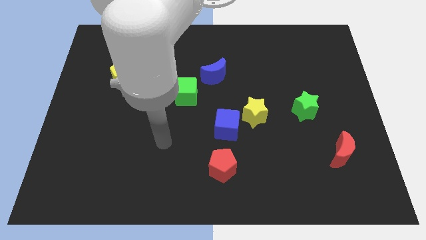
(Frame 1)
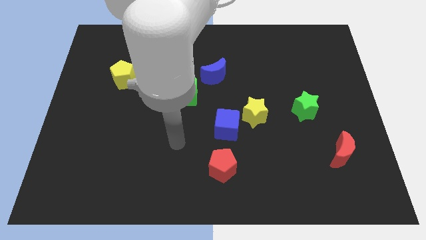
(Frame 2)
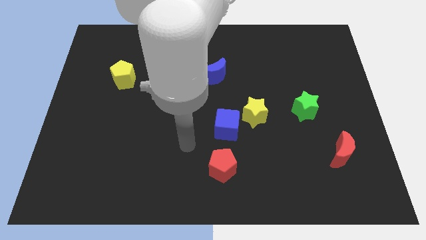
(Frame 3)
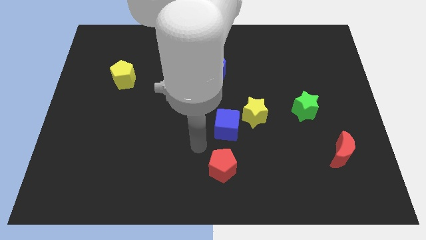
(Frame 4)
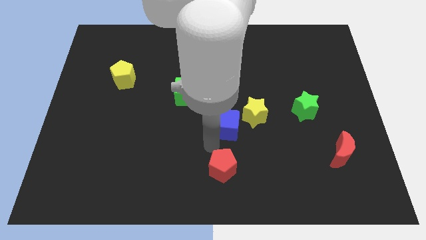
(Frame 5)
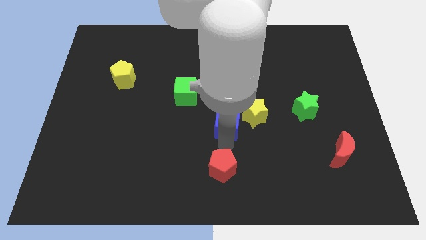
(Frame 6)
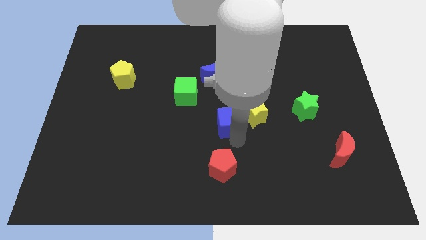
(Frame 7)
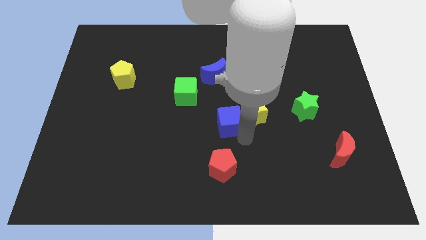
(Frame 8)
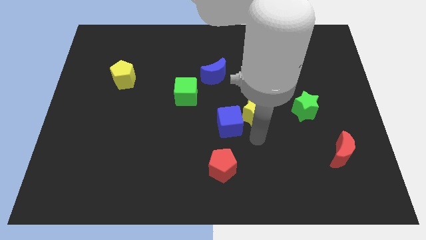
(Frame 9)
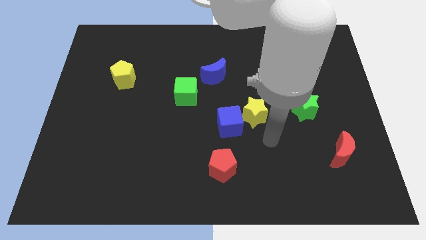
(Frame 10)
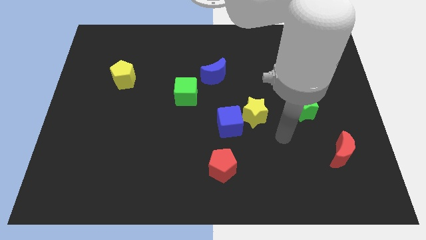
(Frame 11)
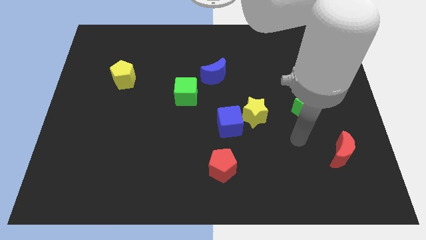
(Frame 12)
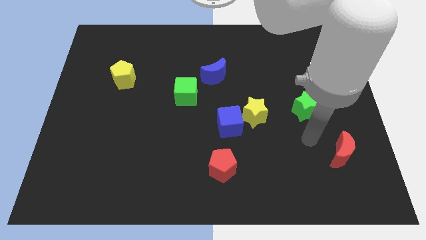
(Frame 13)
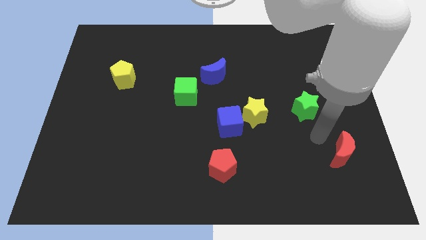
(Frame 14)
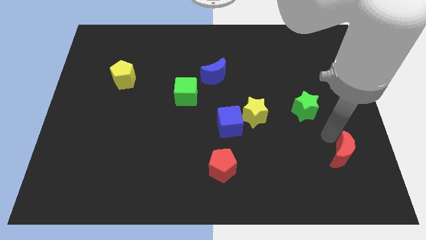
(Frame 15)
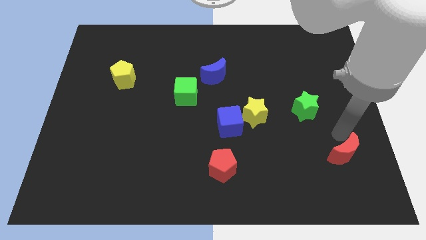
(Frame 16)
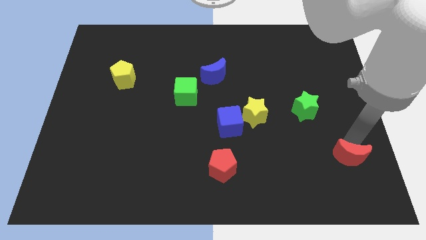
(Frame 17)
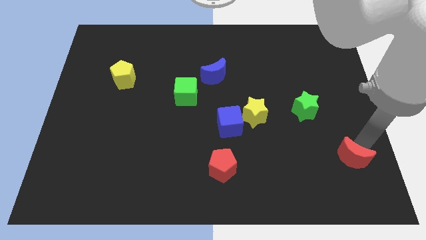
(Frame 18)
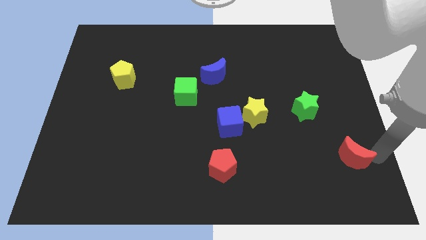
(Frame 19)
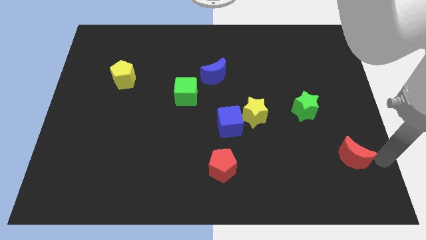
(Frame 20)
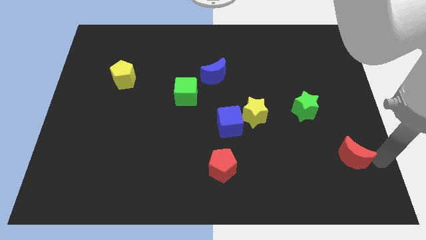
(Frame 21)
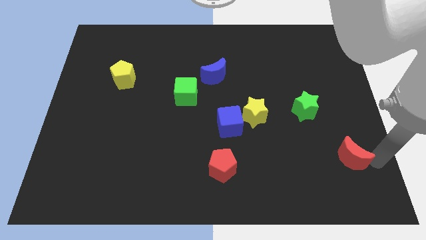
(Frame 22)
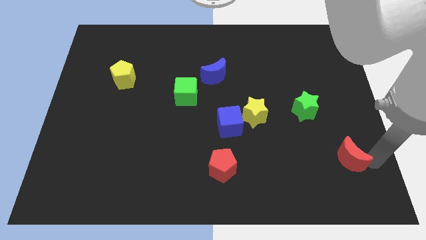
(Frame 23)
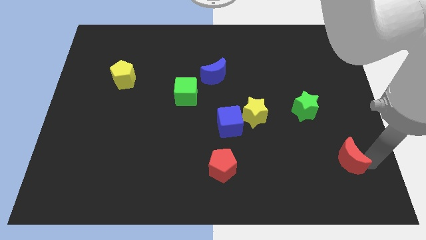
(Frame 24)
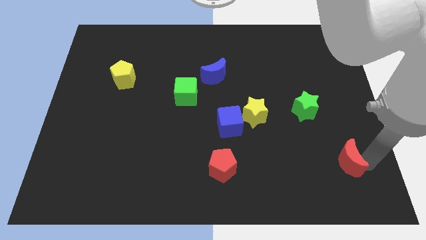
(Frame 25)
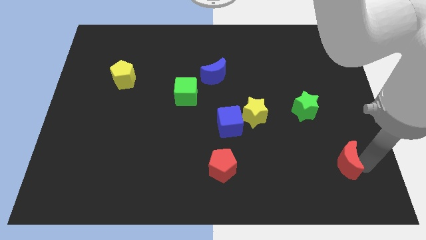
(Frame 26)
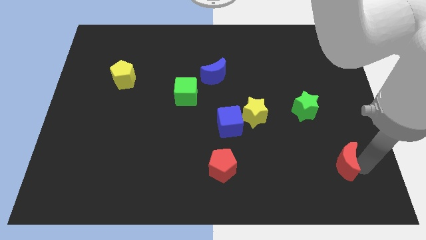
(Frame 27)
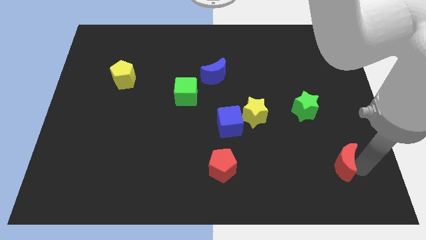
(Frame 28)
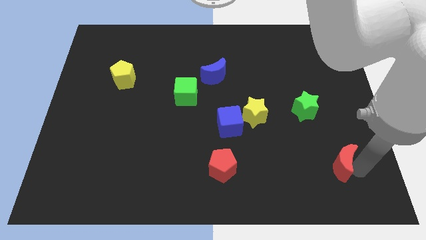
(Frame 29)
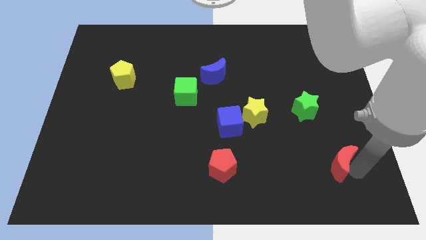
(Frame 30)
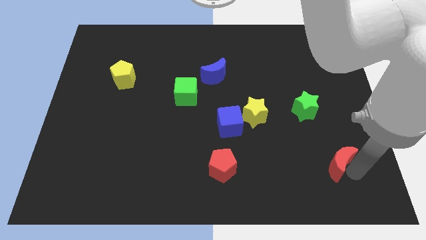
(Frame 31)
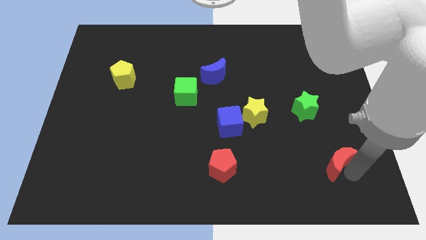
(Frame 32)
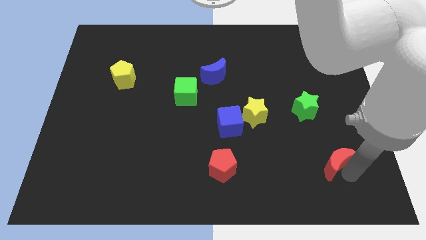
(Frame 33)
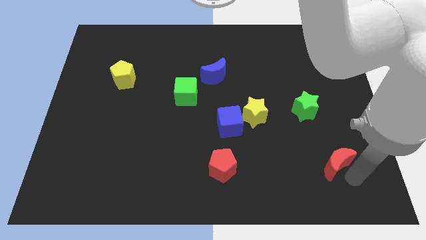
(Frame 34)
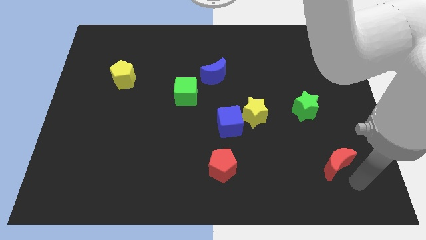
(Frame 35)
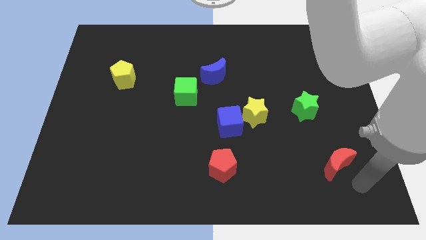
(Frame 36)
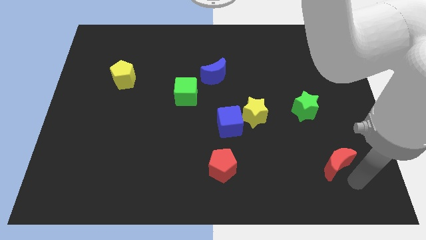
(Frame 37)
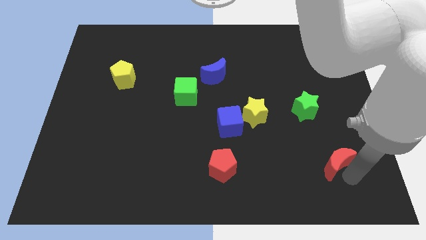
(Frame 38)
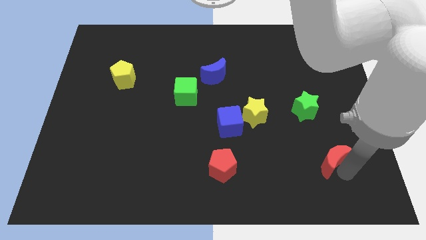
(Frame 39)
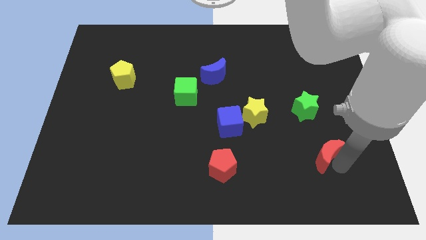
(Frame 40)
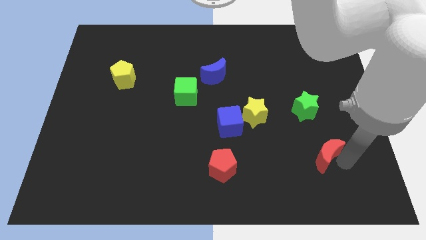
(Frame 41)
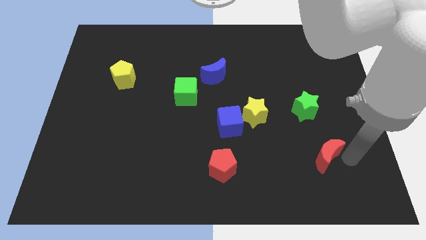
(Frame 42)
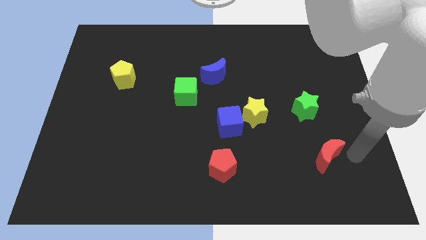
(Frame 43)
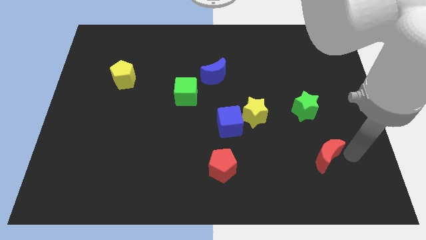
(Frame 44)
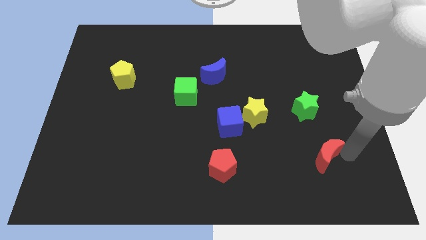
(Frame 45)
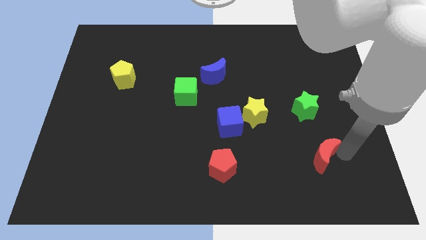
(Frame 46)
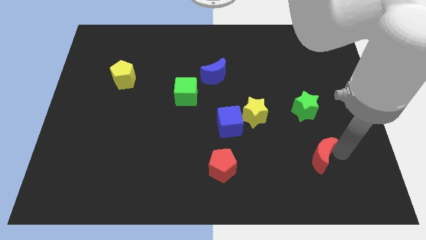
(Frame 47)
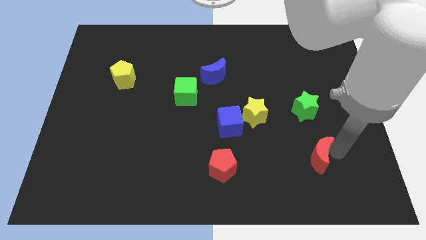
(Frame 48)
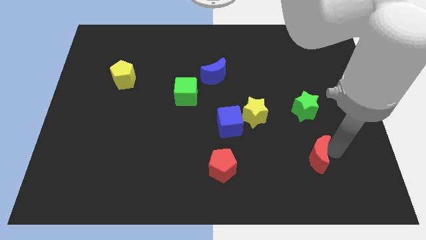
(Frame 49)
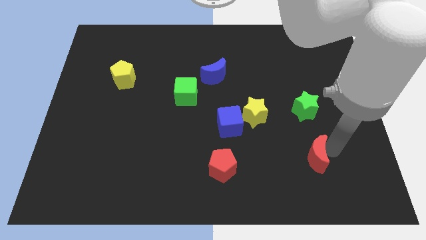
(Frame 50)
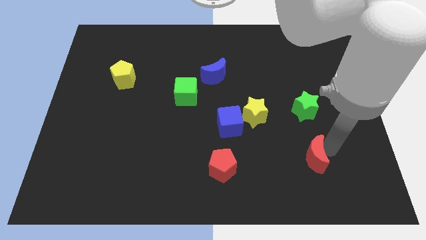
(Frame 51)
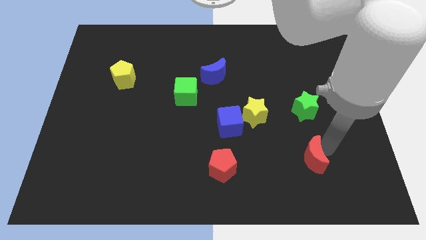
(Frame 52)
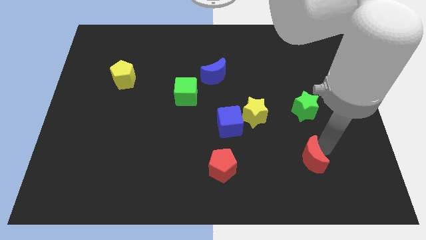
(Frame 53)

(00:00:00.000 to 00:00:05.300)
slightly push the red moon to the left

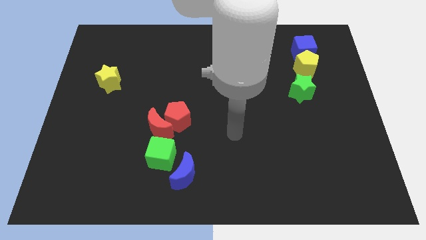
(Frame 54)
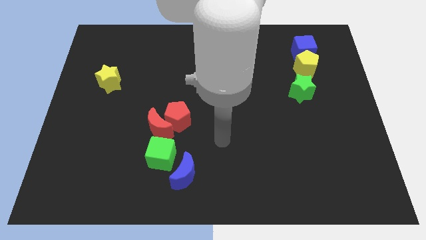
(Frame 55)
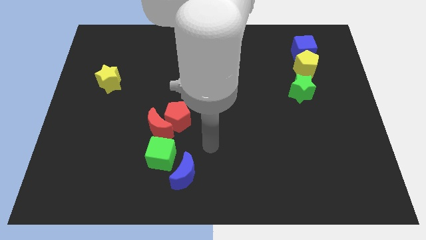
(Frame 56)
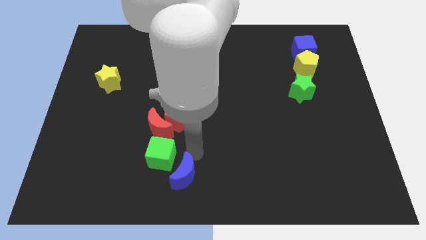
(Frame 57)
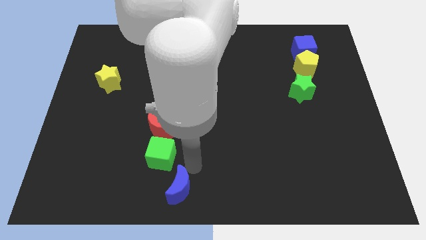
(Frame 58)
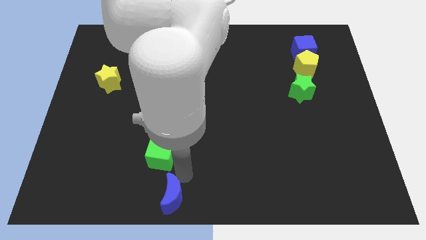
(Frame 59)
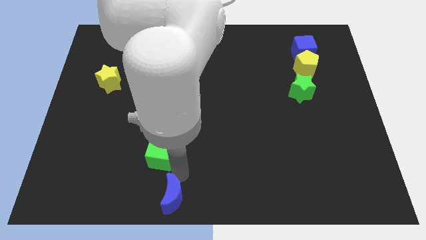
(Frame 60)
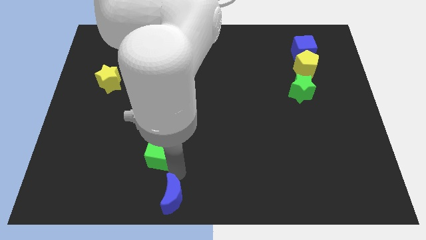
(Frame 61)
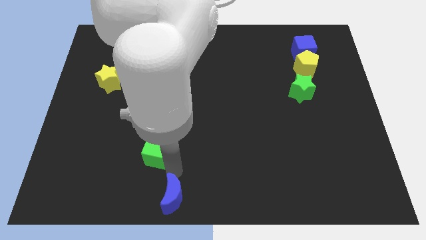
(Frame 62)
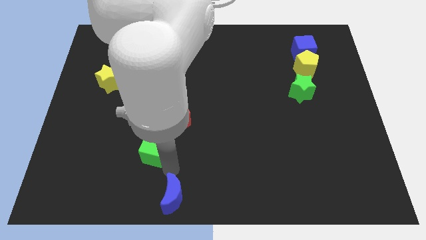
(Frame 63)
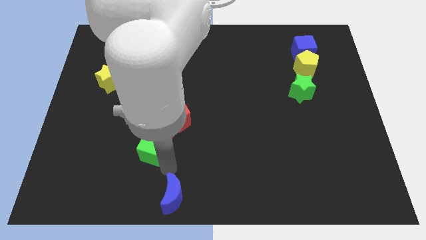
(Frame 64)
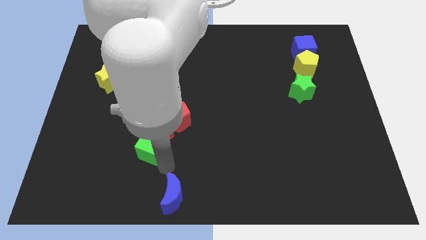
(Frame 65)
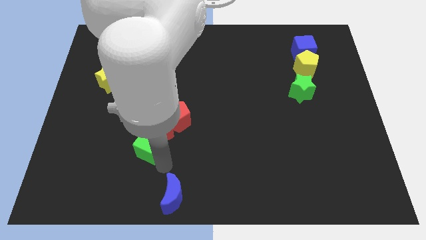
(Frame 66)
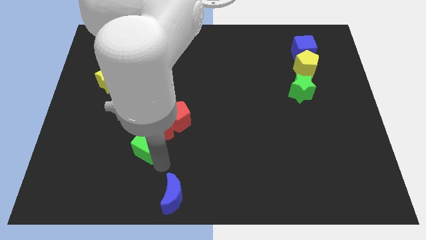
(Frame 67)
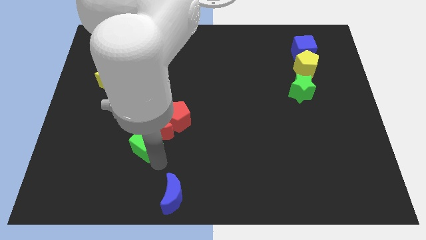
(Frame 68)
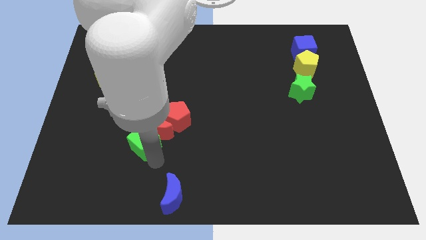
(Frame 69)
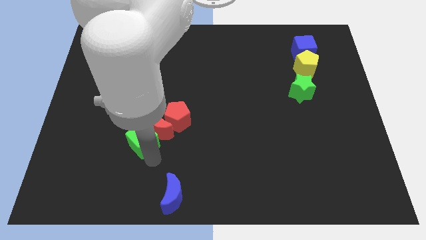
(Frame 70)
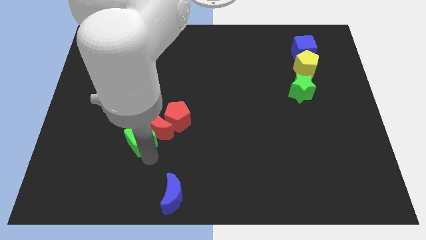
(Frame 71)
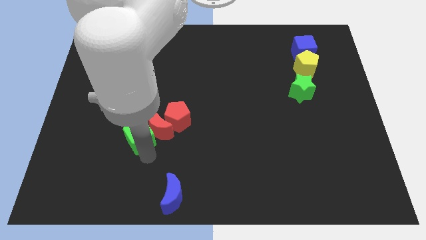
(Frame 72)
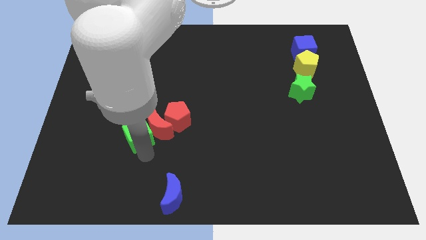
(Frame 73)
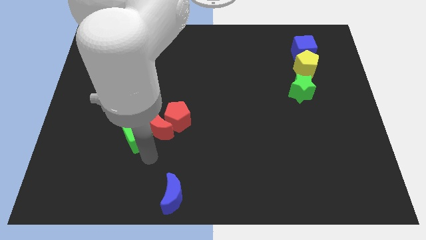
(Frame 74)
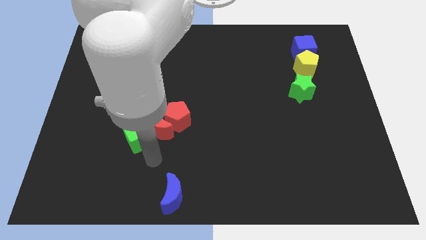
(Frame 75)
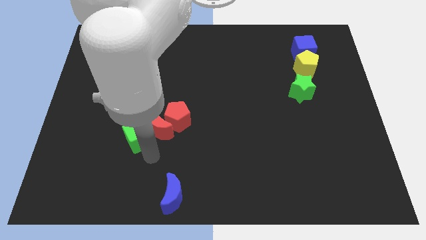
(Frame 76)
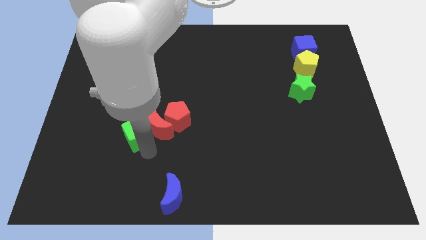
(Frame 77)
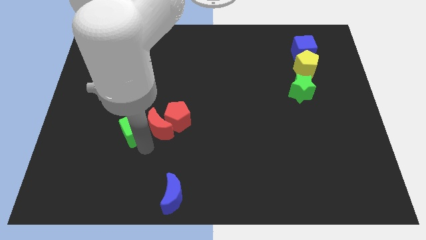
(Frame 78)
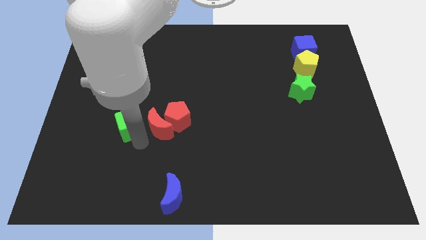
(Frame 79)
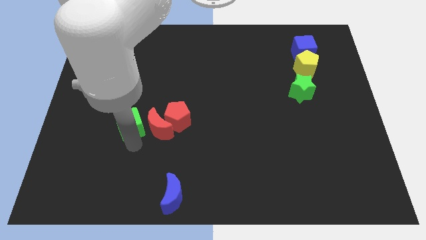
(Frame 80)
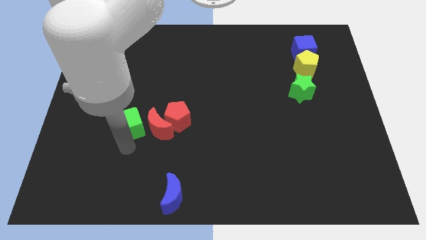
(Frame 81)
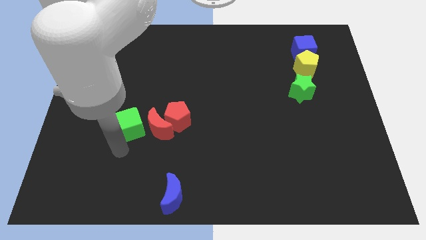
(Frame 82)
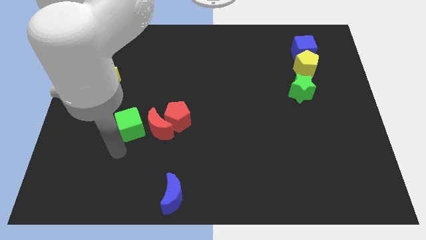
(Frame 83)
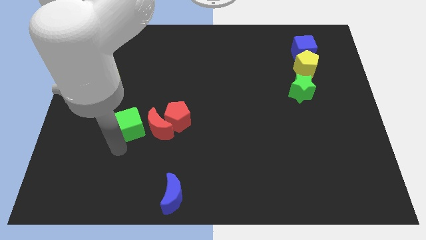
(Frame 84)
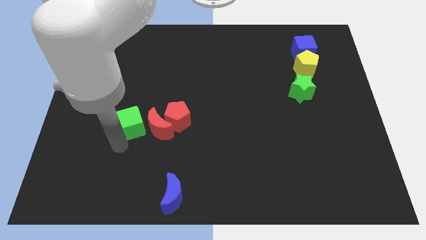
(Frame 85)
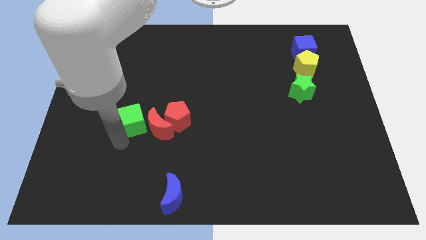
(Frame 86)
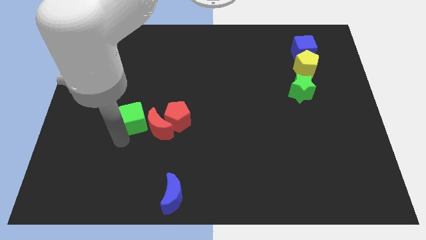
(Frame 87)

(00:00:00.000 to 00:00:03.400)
move the green cube up a bit
